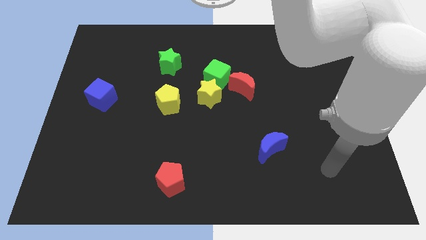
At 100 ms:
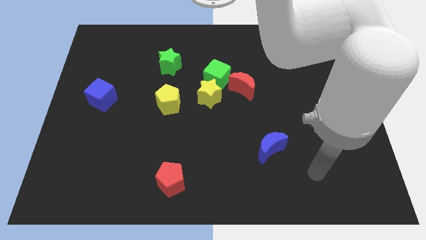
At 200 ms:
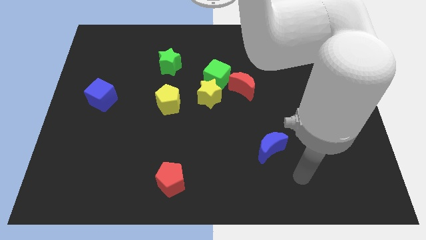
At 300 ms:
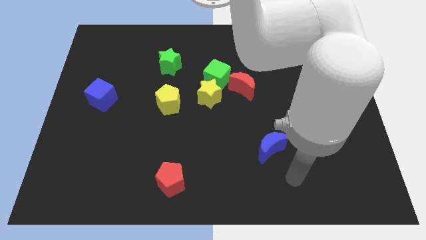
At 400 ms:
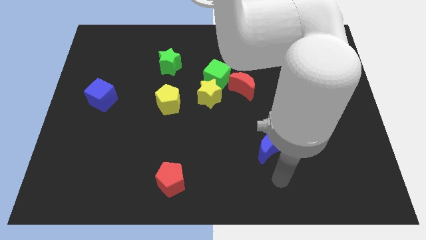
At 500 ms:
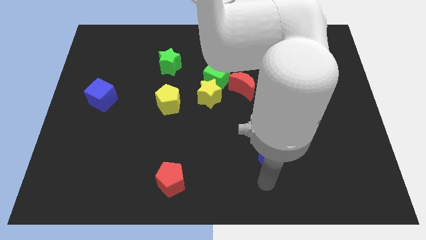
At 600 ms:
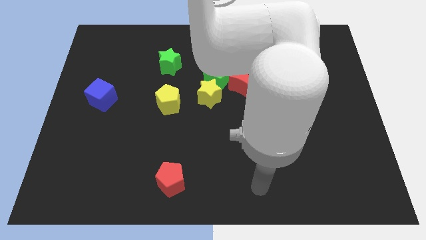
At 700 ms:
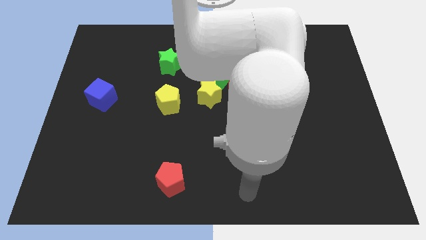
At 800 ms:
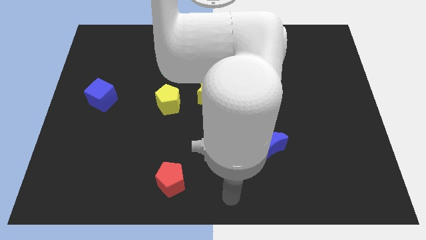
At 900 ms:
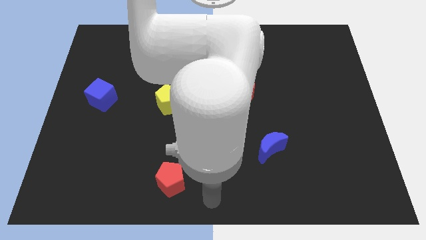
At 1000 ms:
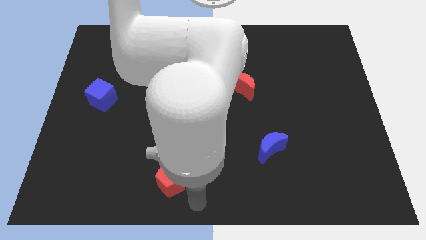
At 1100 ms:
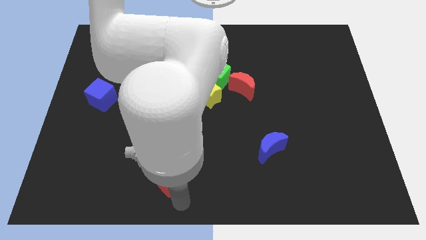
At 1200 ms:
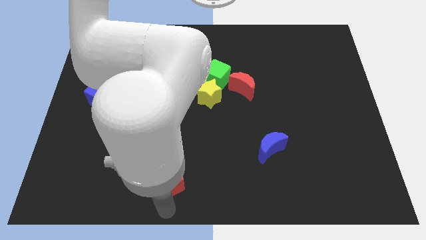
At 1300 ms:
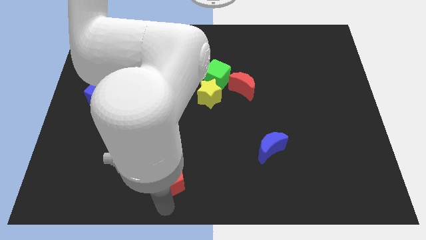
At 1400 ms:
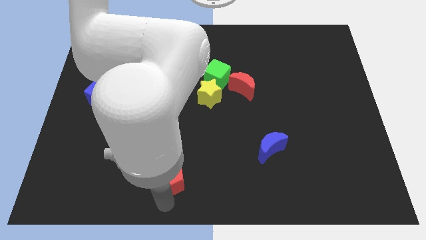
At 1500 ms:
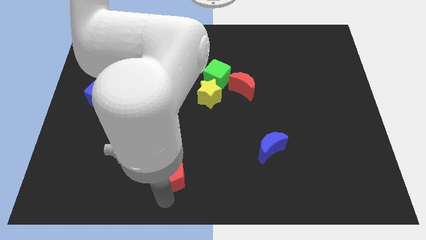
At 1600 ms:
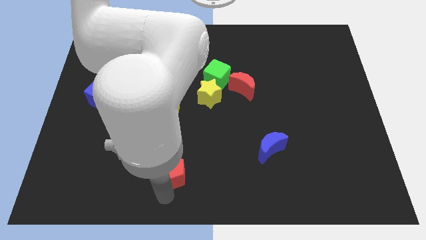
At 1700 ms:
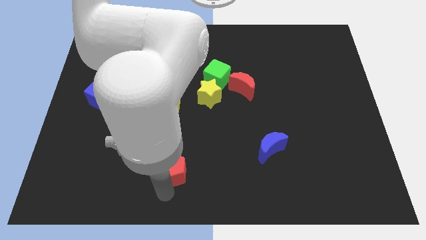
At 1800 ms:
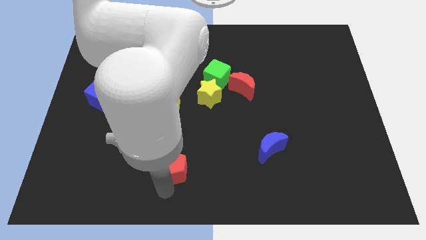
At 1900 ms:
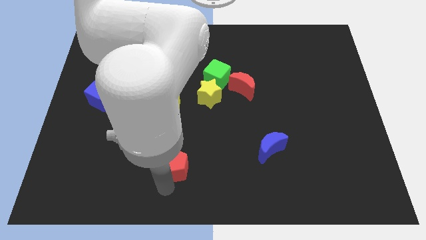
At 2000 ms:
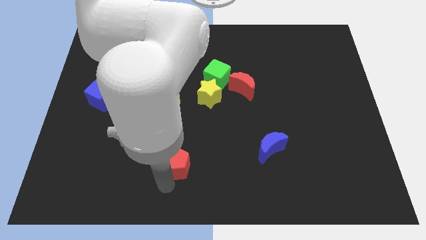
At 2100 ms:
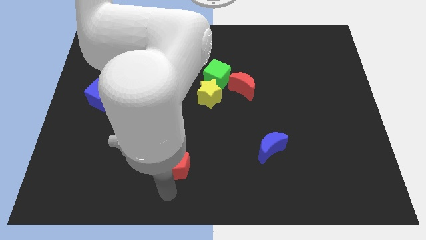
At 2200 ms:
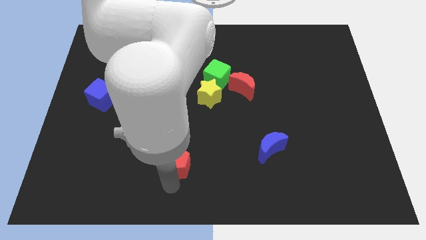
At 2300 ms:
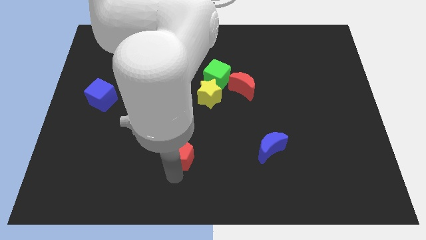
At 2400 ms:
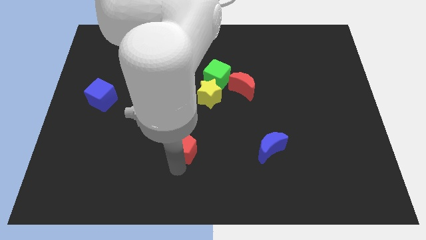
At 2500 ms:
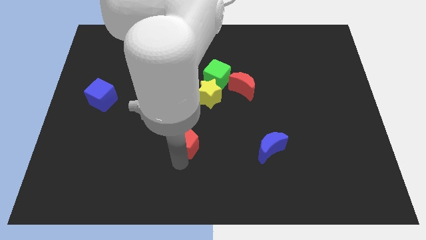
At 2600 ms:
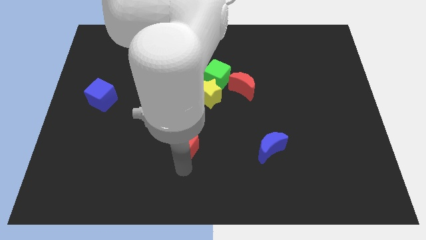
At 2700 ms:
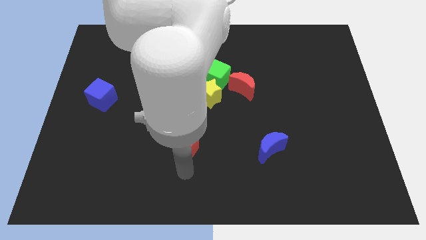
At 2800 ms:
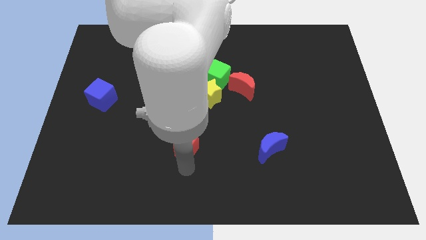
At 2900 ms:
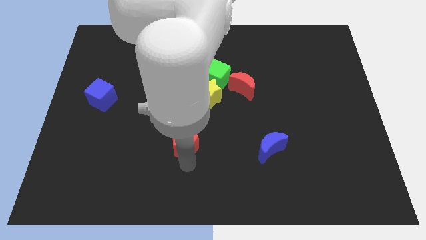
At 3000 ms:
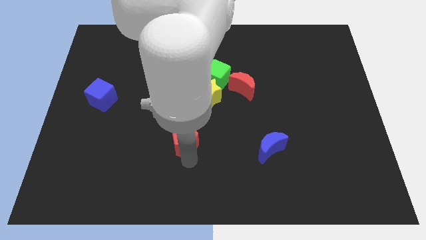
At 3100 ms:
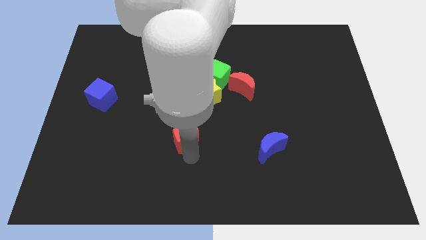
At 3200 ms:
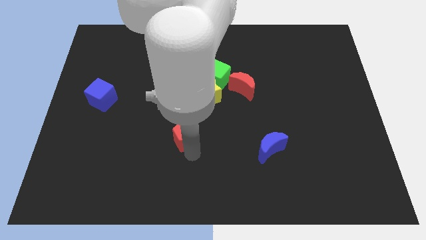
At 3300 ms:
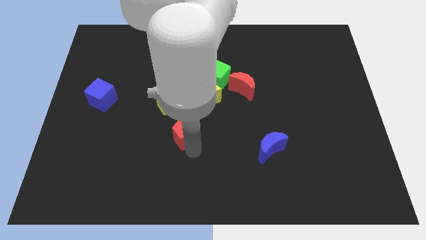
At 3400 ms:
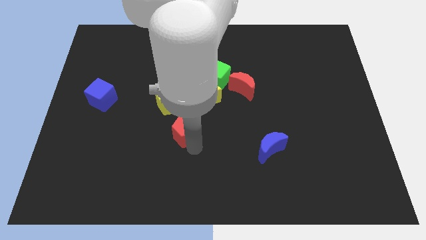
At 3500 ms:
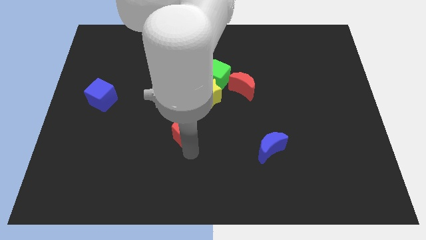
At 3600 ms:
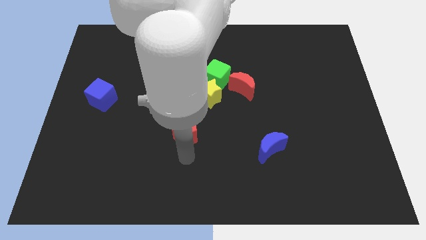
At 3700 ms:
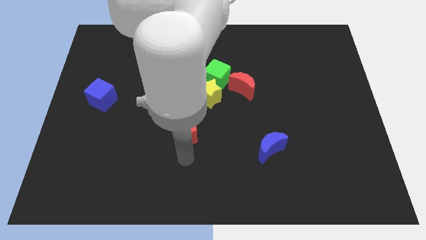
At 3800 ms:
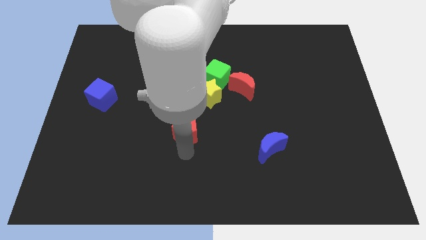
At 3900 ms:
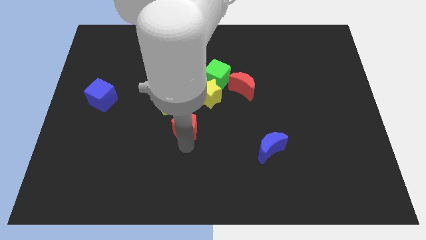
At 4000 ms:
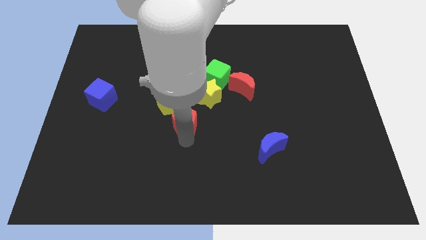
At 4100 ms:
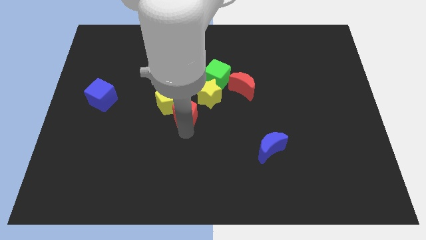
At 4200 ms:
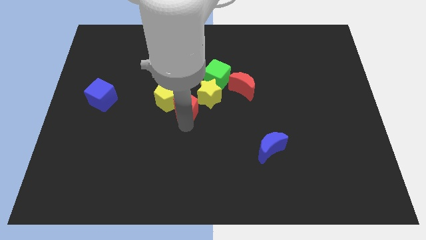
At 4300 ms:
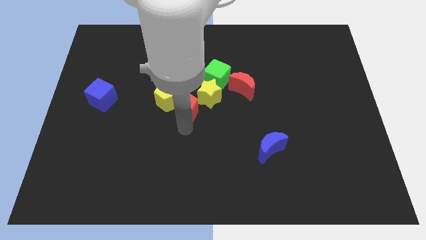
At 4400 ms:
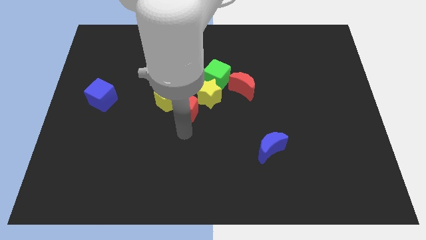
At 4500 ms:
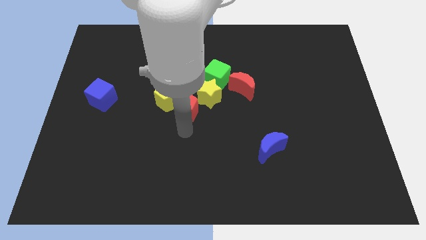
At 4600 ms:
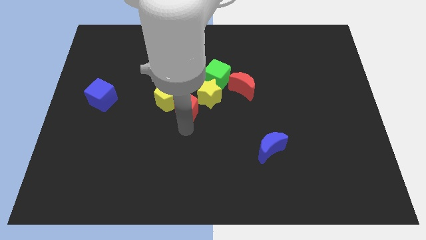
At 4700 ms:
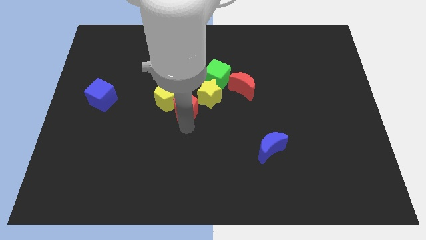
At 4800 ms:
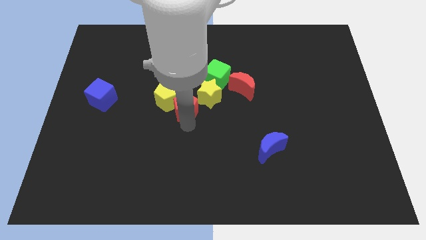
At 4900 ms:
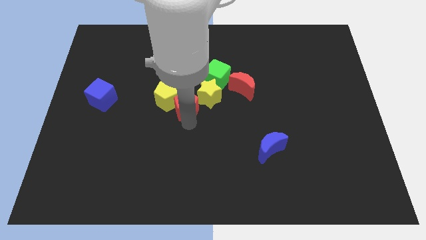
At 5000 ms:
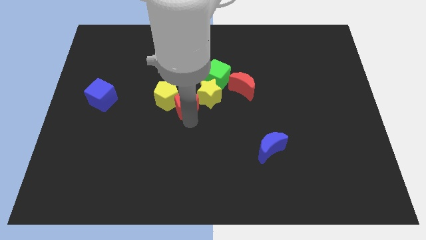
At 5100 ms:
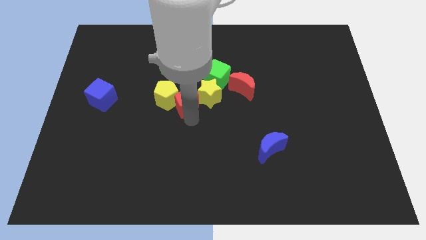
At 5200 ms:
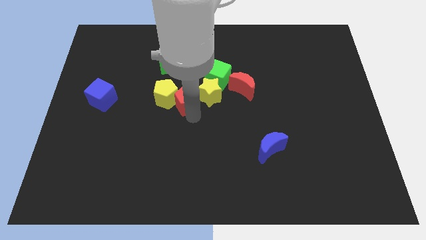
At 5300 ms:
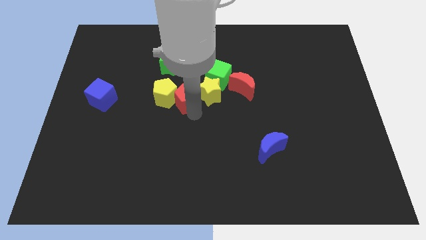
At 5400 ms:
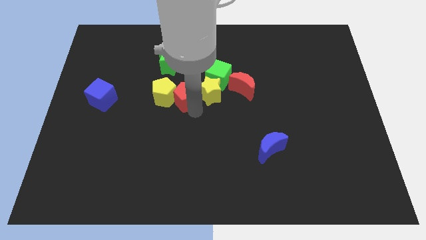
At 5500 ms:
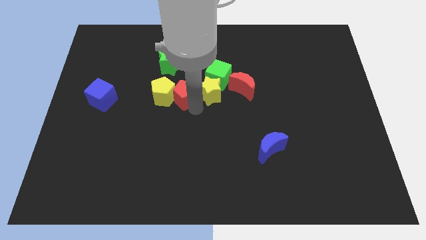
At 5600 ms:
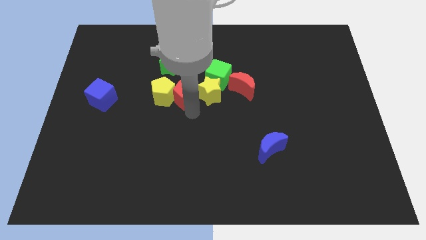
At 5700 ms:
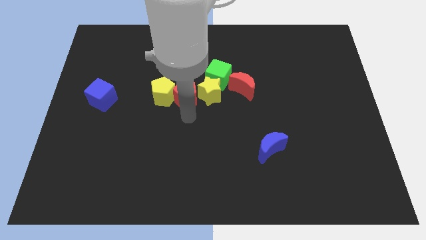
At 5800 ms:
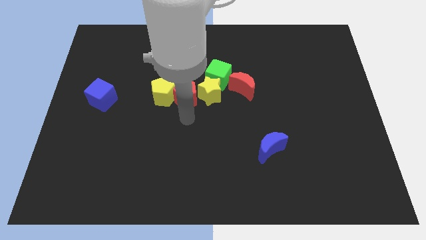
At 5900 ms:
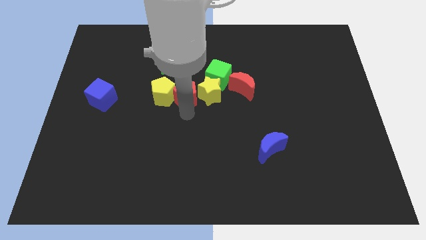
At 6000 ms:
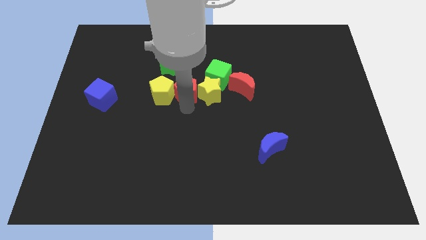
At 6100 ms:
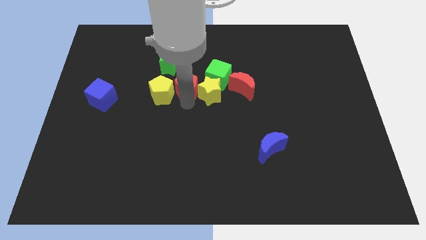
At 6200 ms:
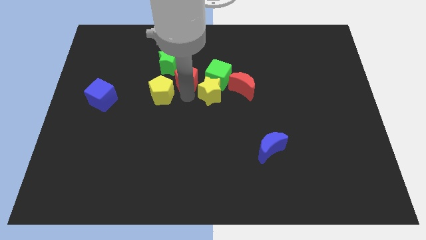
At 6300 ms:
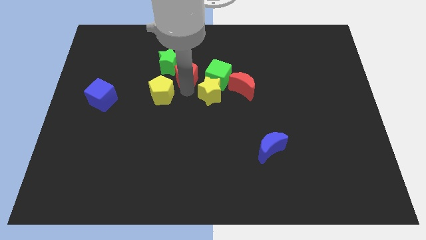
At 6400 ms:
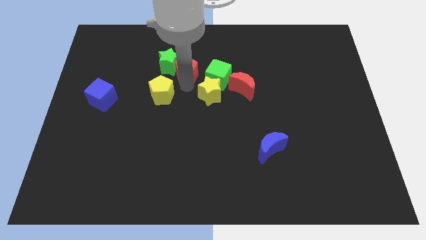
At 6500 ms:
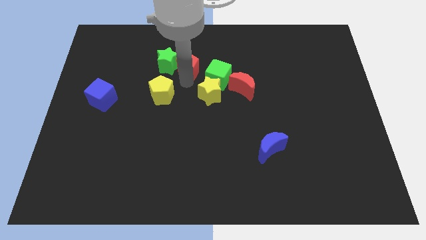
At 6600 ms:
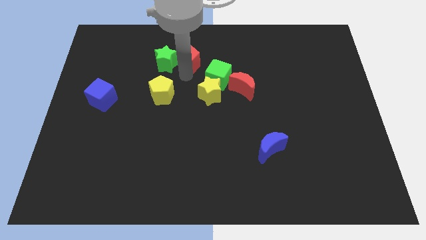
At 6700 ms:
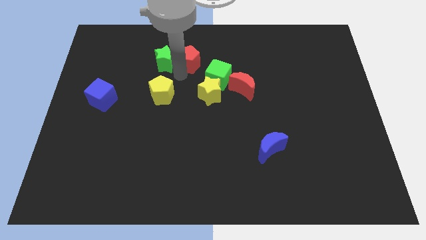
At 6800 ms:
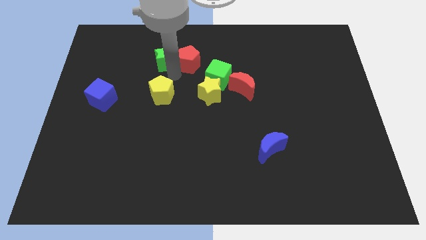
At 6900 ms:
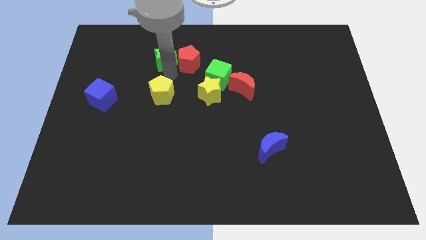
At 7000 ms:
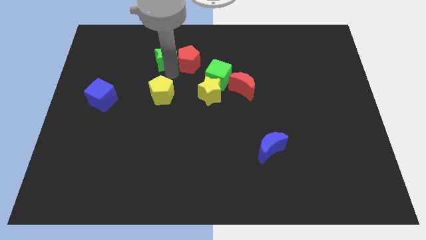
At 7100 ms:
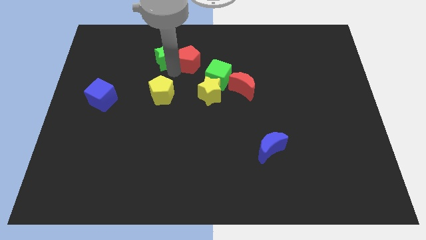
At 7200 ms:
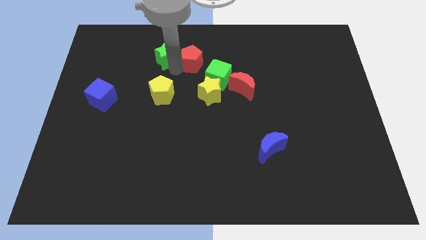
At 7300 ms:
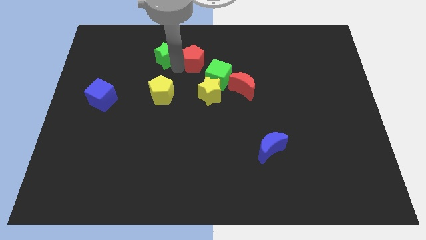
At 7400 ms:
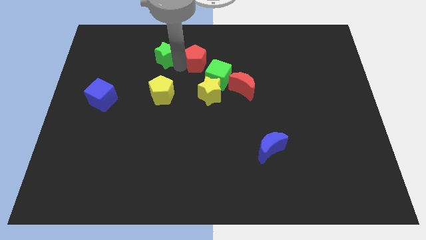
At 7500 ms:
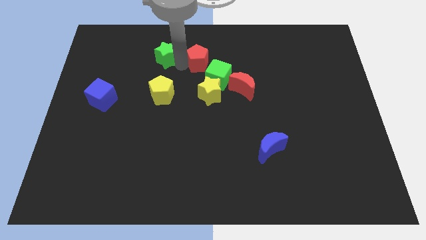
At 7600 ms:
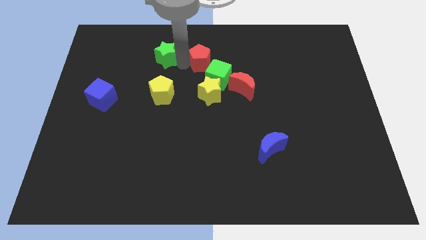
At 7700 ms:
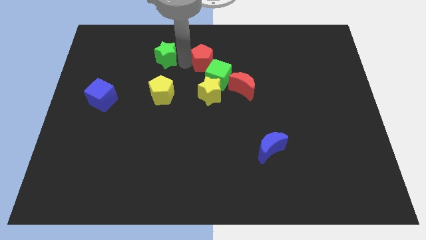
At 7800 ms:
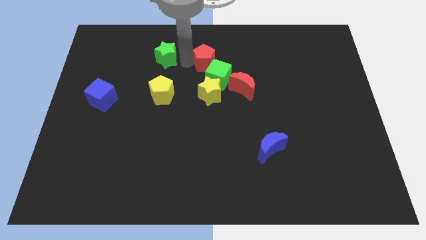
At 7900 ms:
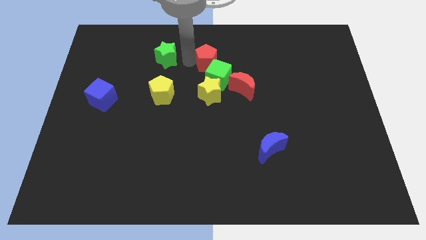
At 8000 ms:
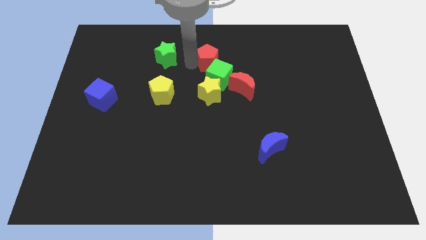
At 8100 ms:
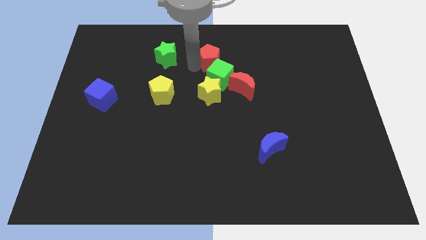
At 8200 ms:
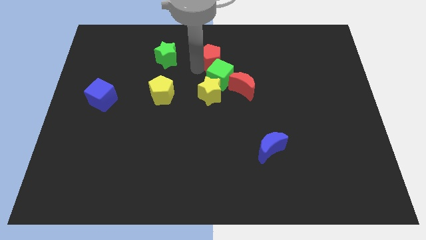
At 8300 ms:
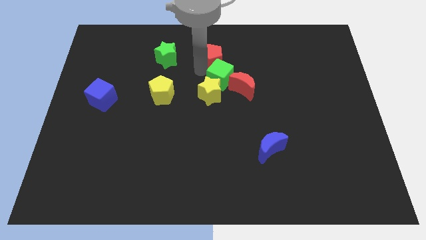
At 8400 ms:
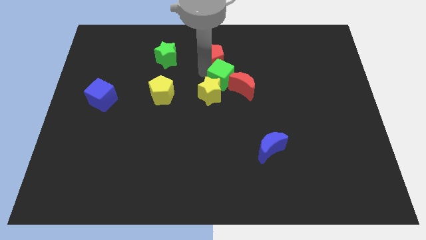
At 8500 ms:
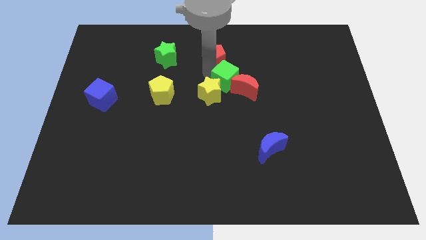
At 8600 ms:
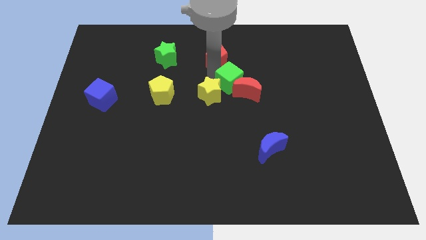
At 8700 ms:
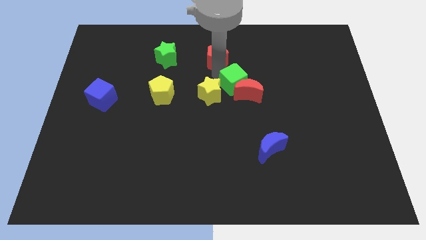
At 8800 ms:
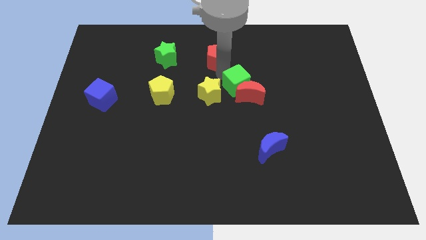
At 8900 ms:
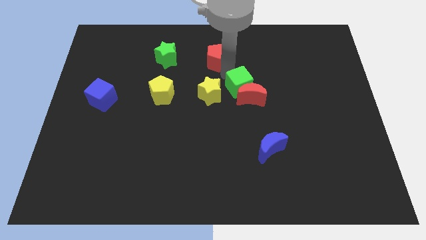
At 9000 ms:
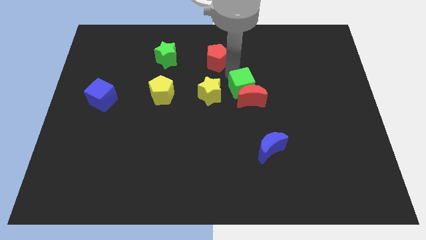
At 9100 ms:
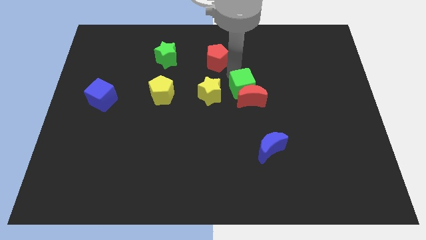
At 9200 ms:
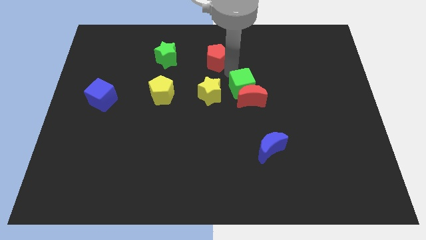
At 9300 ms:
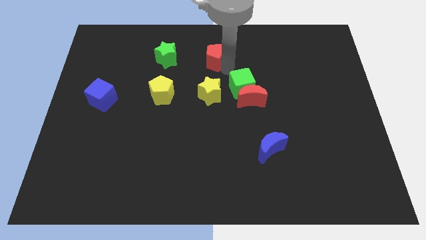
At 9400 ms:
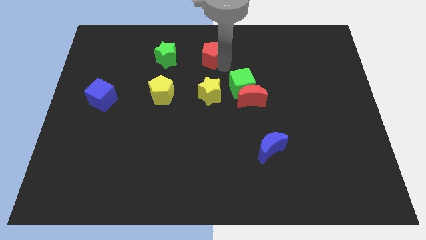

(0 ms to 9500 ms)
slide the red pentagon to the top side
